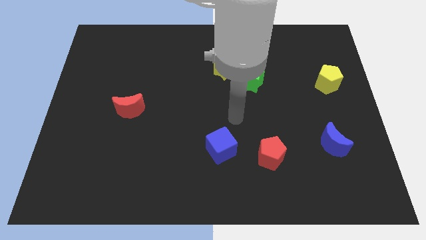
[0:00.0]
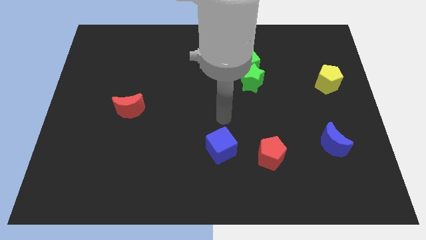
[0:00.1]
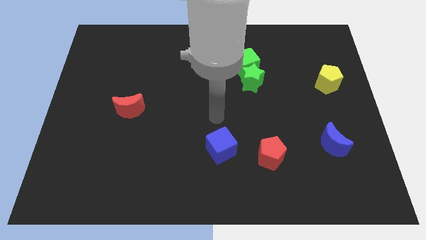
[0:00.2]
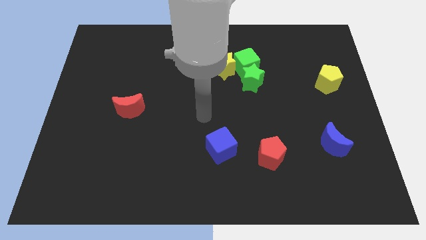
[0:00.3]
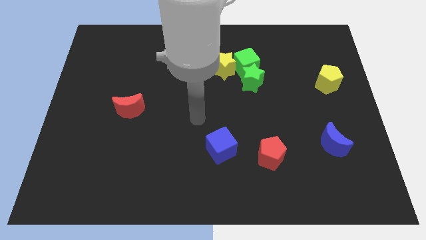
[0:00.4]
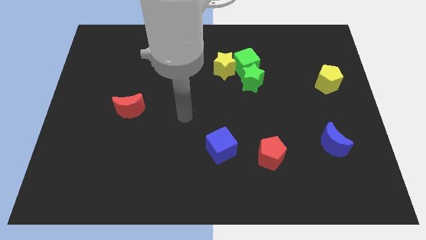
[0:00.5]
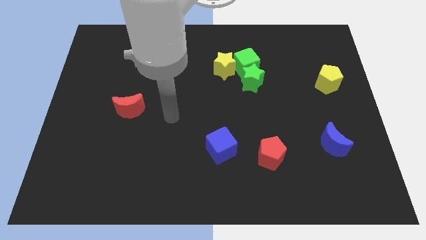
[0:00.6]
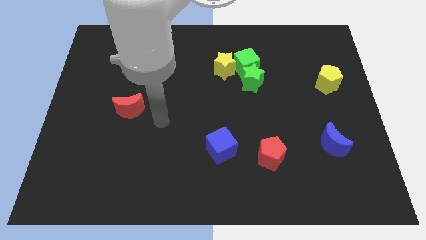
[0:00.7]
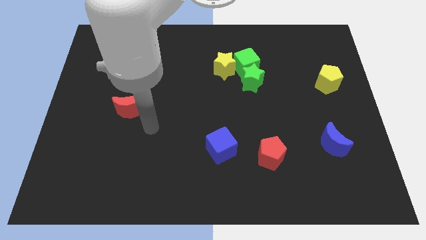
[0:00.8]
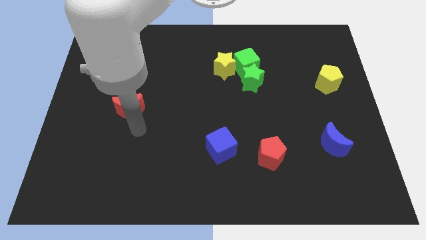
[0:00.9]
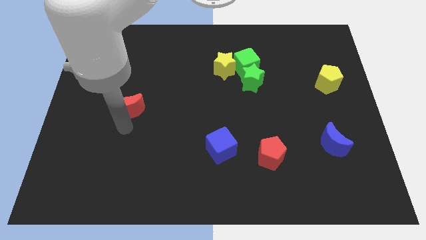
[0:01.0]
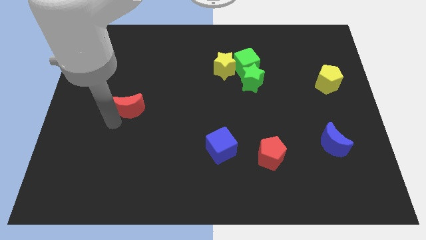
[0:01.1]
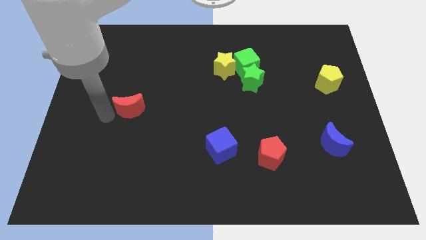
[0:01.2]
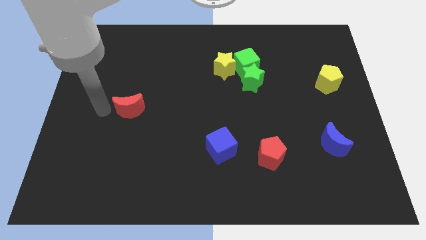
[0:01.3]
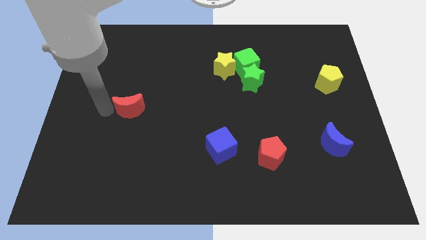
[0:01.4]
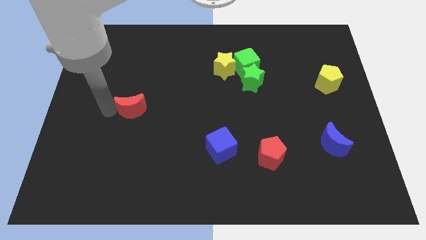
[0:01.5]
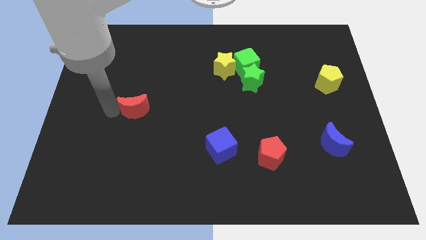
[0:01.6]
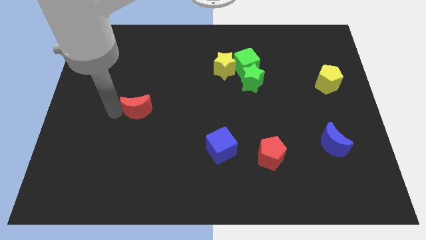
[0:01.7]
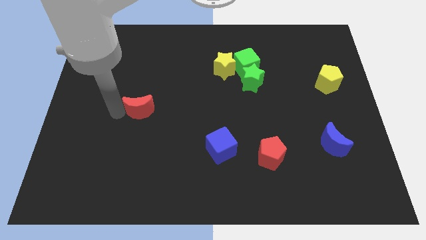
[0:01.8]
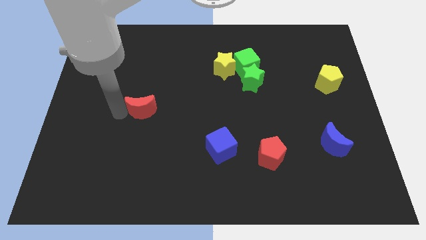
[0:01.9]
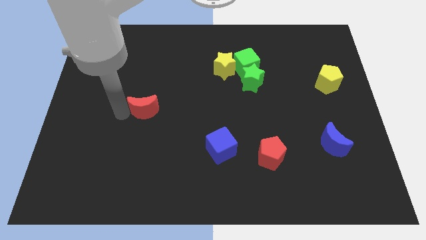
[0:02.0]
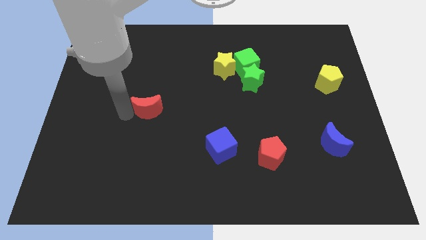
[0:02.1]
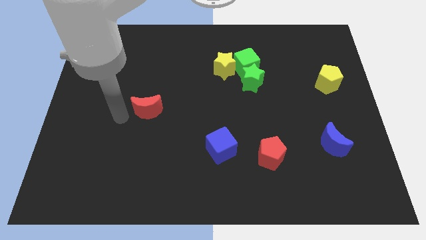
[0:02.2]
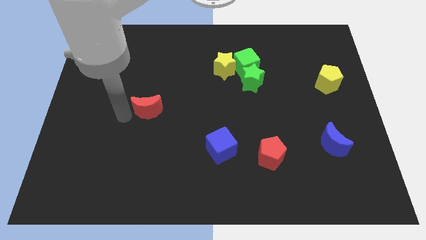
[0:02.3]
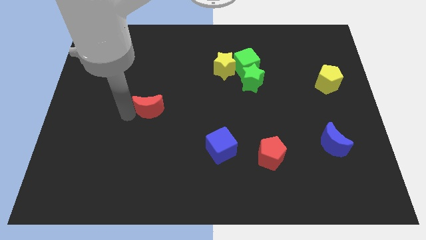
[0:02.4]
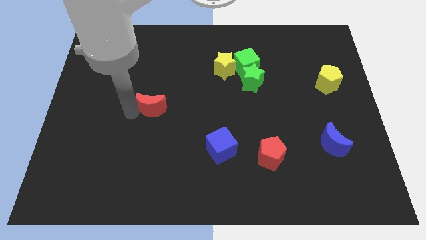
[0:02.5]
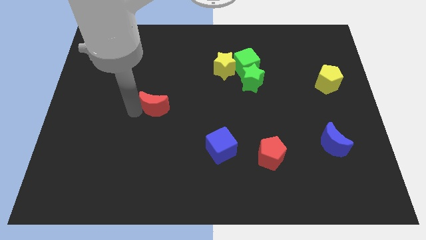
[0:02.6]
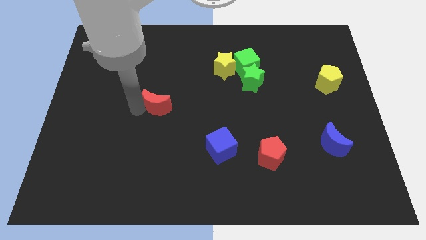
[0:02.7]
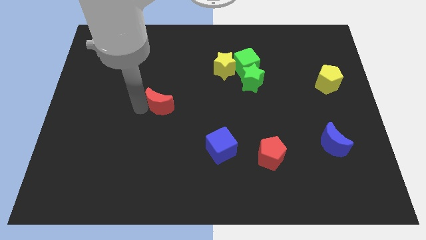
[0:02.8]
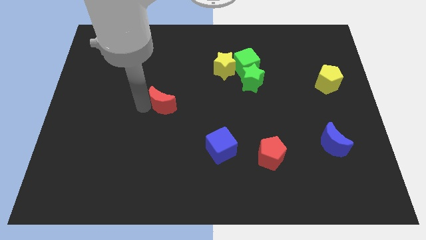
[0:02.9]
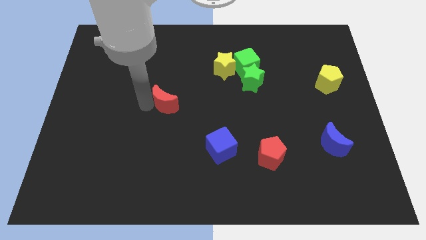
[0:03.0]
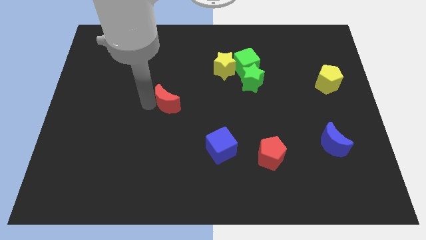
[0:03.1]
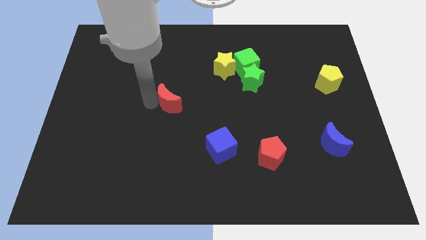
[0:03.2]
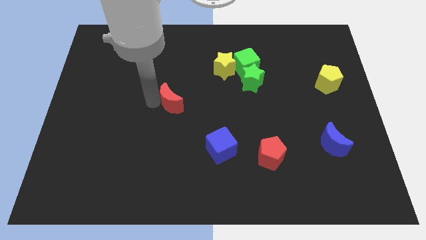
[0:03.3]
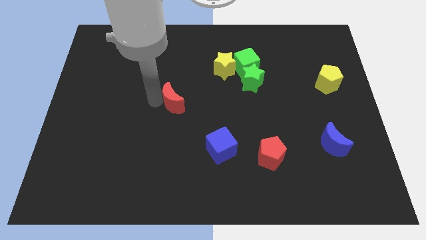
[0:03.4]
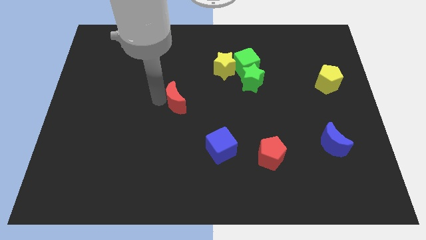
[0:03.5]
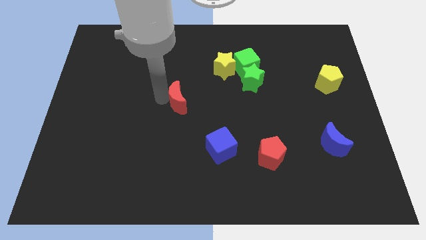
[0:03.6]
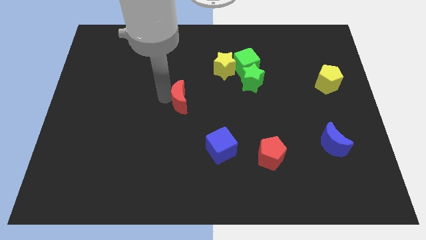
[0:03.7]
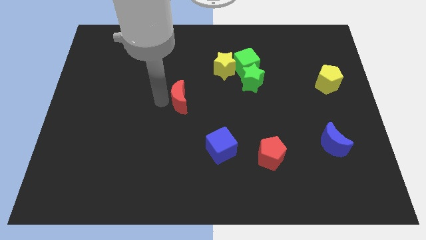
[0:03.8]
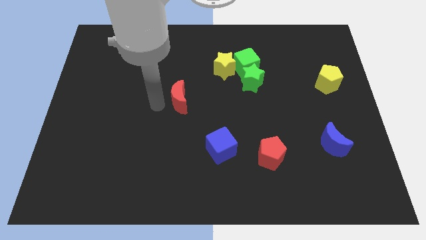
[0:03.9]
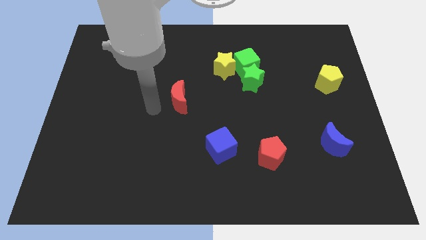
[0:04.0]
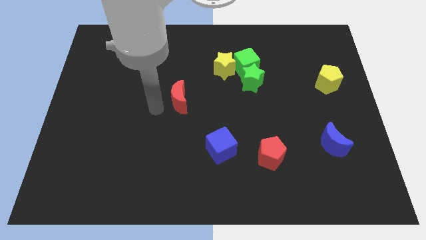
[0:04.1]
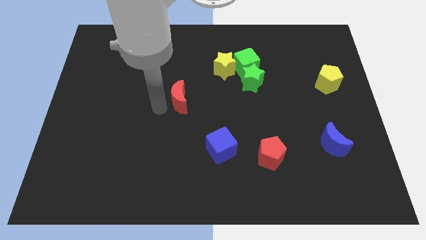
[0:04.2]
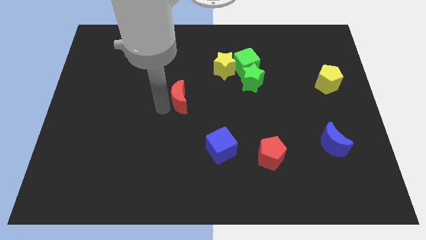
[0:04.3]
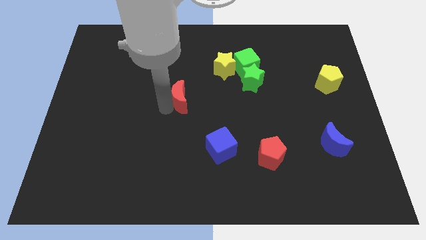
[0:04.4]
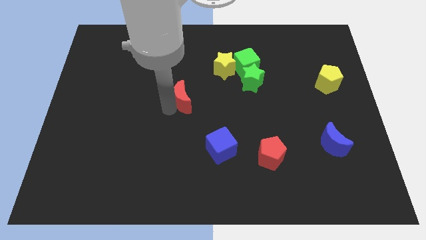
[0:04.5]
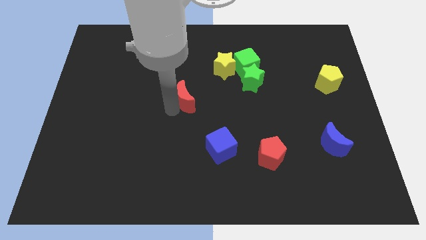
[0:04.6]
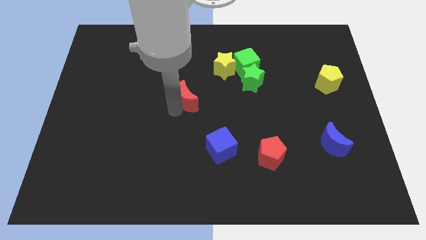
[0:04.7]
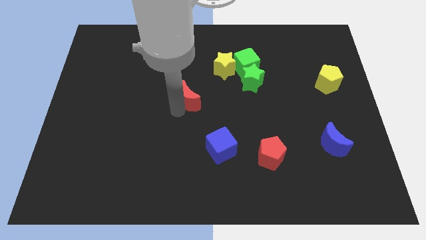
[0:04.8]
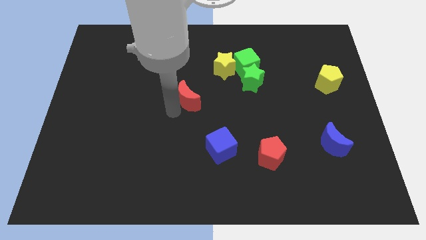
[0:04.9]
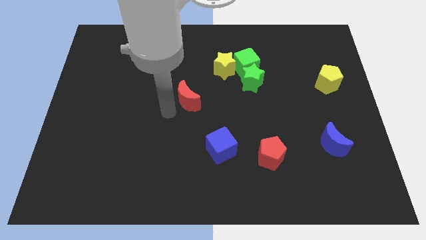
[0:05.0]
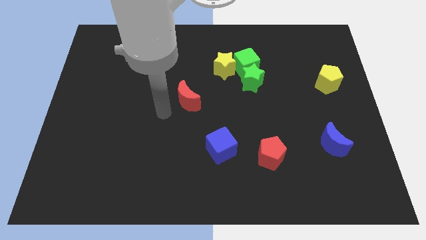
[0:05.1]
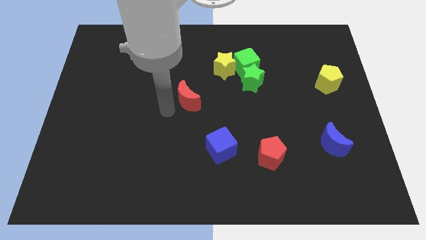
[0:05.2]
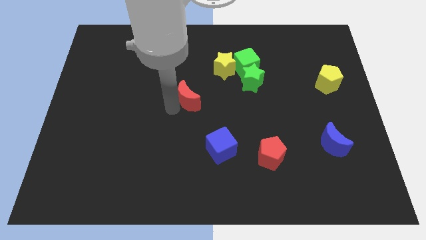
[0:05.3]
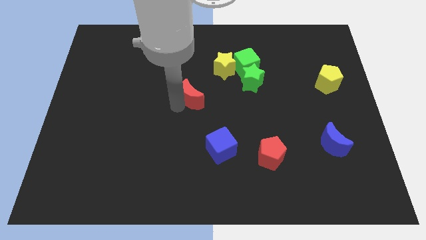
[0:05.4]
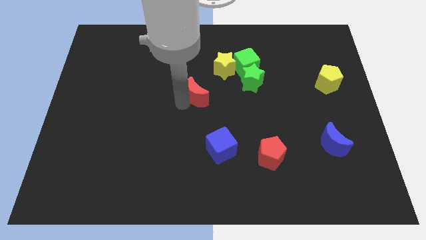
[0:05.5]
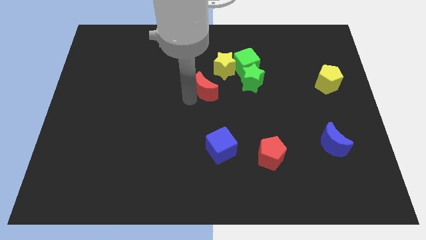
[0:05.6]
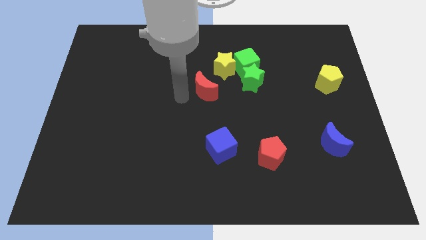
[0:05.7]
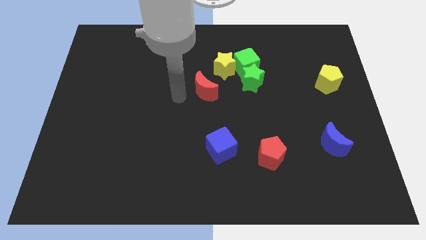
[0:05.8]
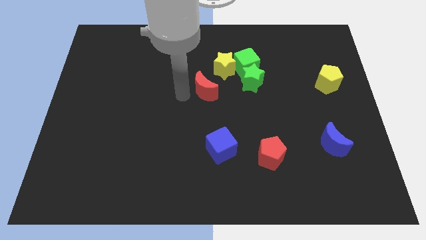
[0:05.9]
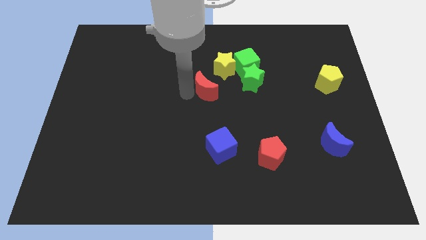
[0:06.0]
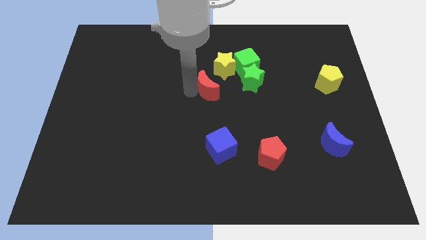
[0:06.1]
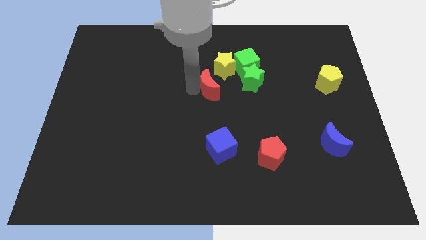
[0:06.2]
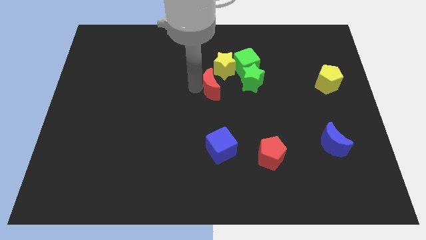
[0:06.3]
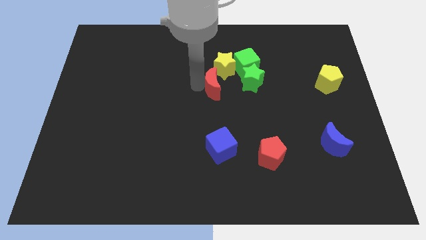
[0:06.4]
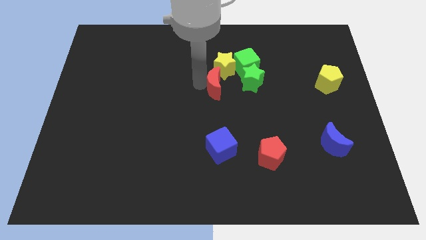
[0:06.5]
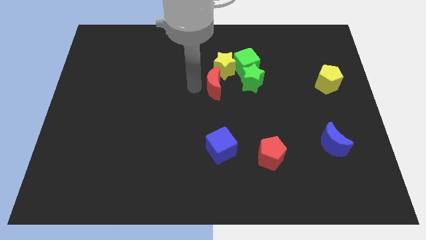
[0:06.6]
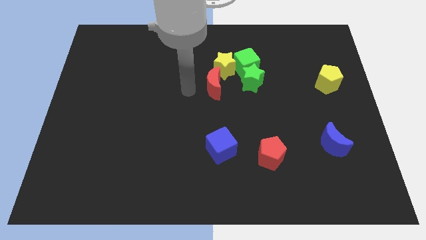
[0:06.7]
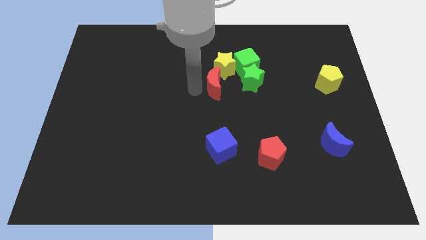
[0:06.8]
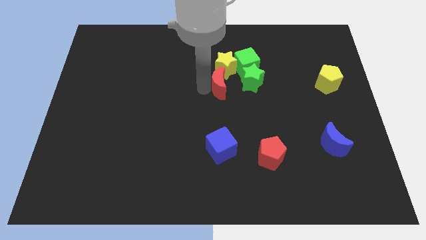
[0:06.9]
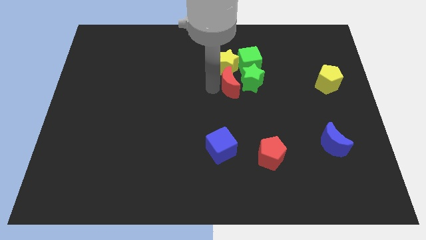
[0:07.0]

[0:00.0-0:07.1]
slide the red moon towards the green star
